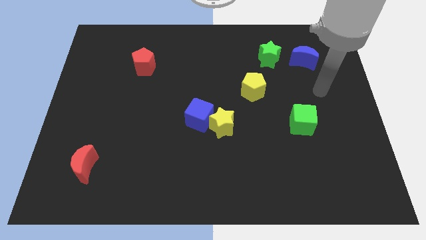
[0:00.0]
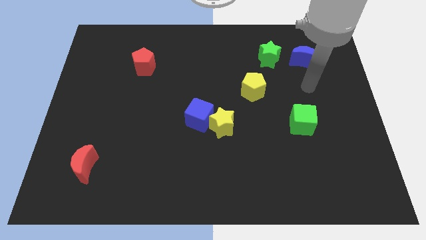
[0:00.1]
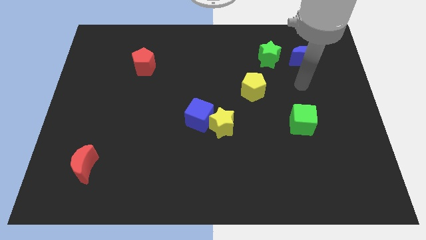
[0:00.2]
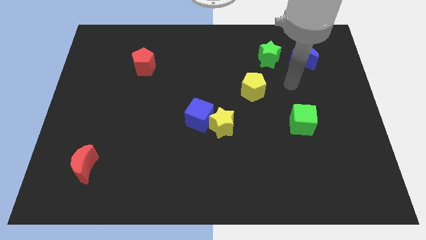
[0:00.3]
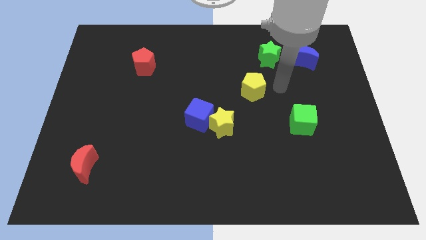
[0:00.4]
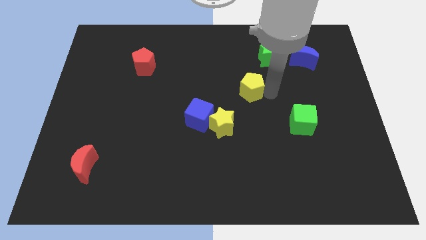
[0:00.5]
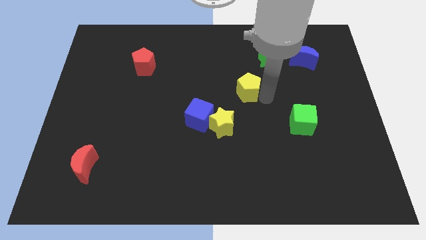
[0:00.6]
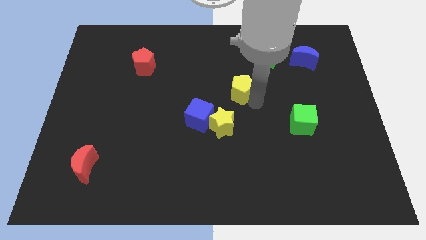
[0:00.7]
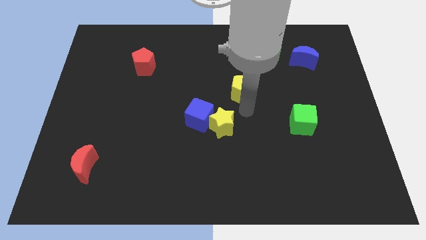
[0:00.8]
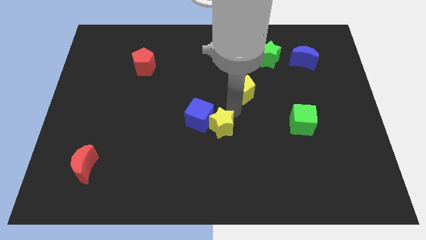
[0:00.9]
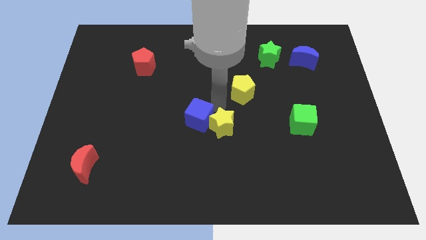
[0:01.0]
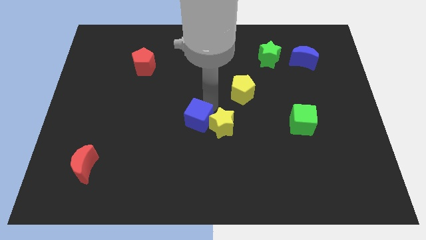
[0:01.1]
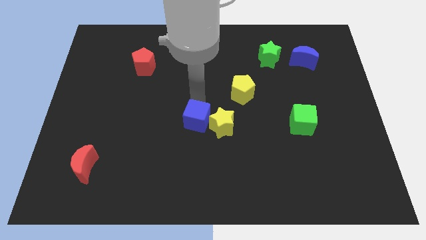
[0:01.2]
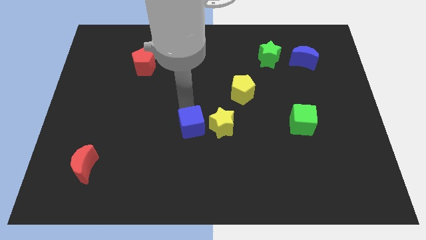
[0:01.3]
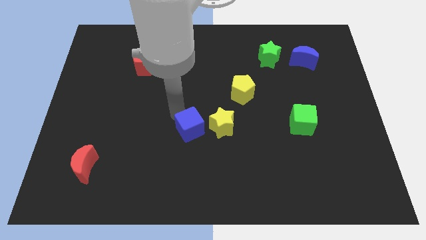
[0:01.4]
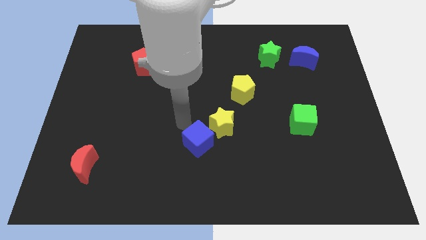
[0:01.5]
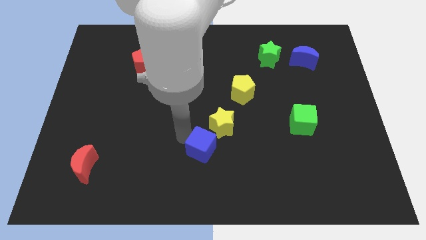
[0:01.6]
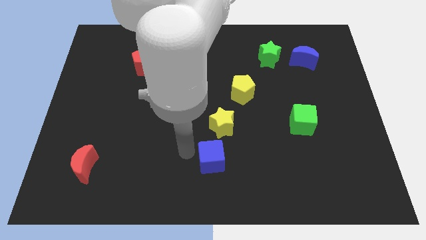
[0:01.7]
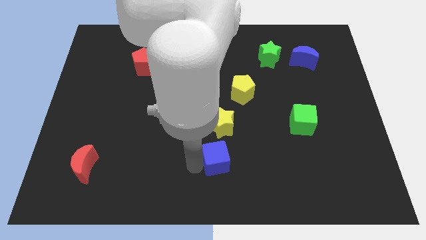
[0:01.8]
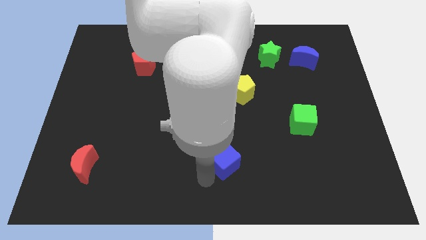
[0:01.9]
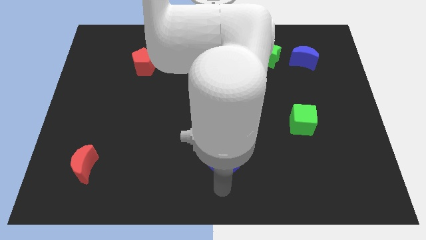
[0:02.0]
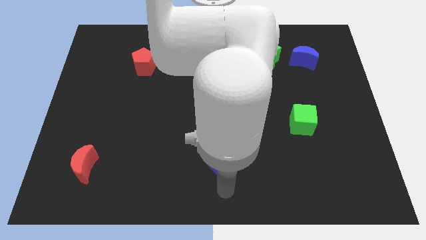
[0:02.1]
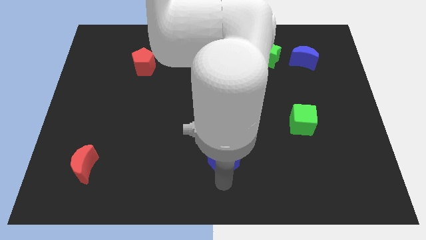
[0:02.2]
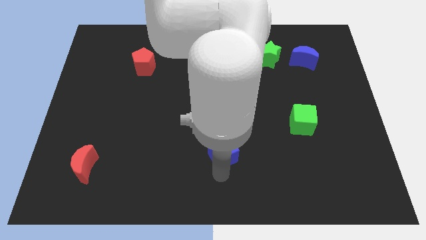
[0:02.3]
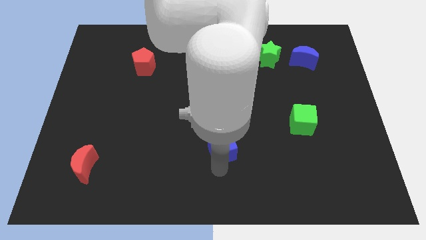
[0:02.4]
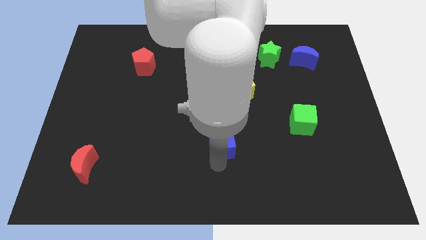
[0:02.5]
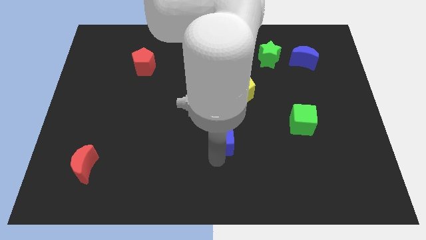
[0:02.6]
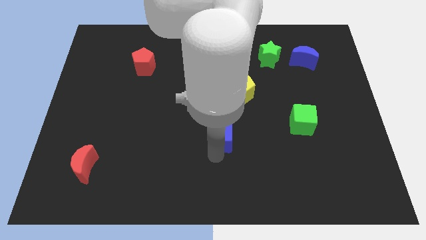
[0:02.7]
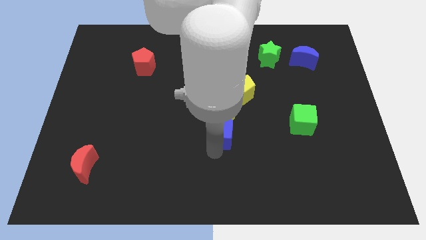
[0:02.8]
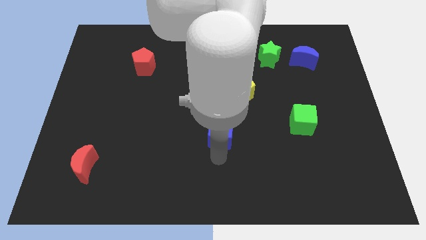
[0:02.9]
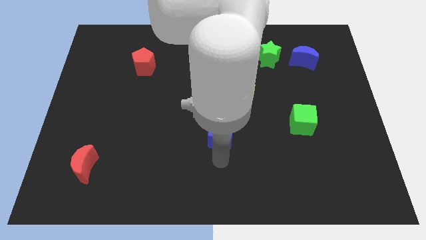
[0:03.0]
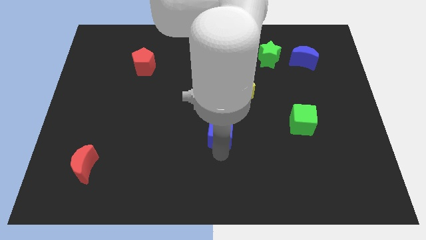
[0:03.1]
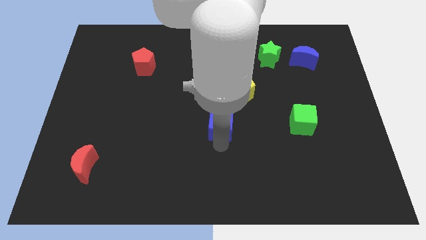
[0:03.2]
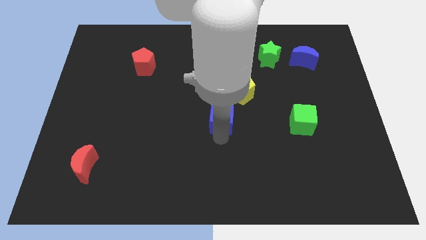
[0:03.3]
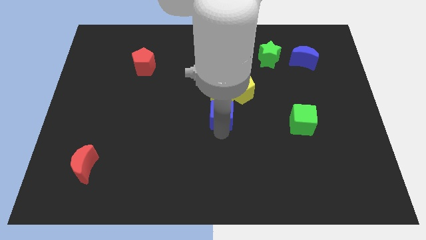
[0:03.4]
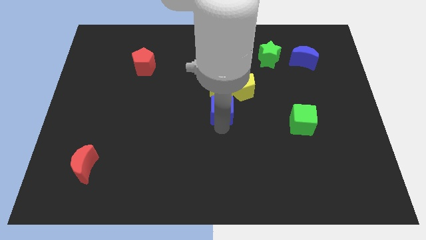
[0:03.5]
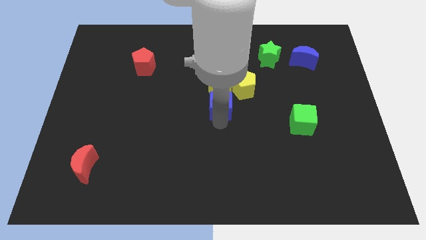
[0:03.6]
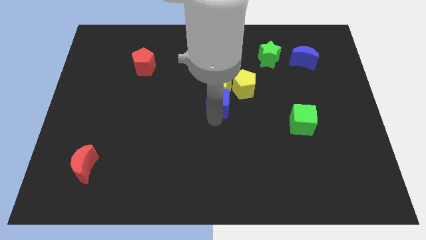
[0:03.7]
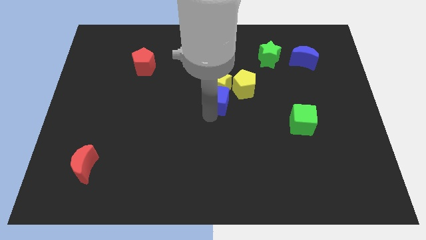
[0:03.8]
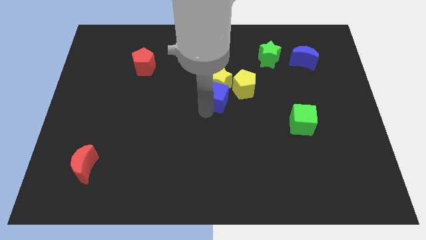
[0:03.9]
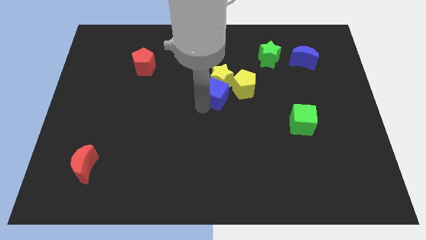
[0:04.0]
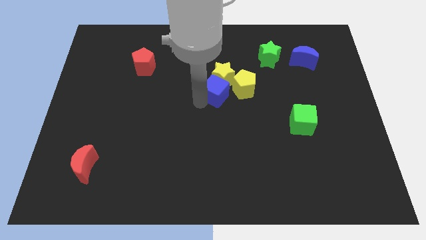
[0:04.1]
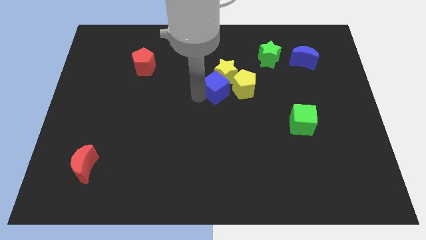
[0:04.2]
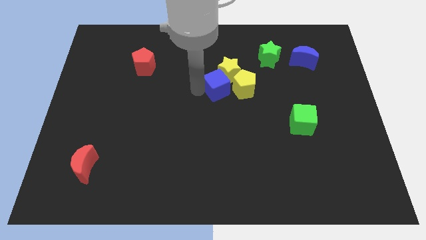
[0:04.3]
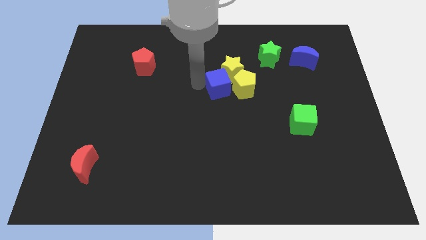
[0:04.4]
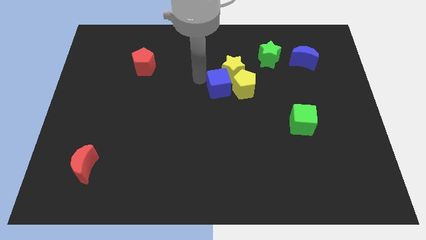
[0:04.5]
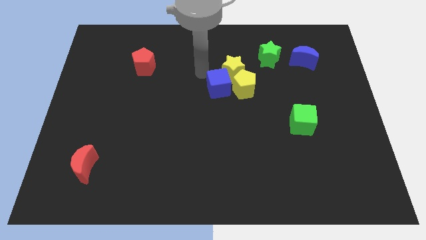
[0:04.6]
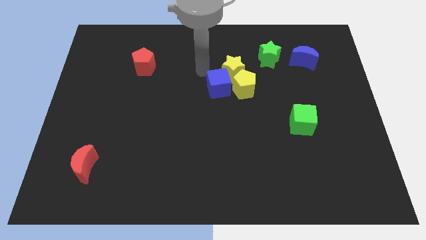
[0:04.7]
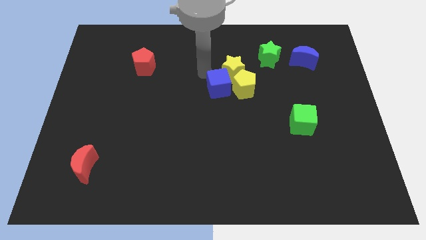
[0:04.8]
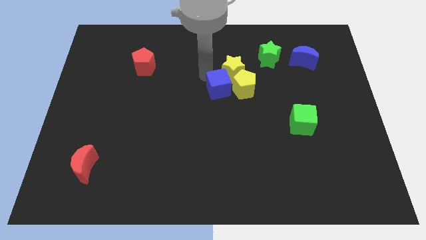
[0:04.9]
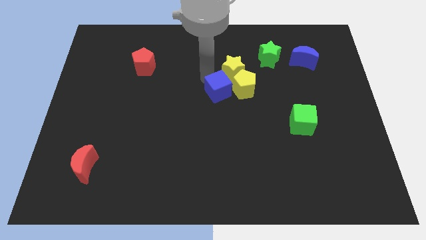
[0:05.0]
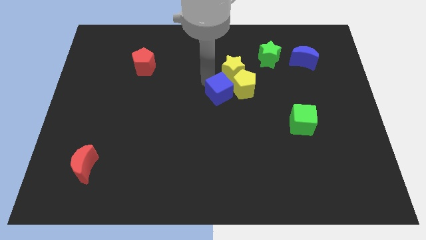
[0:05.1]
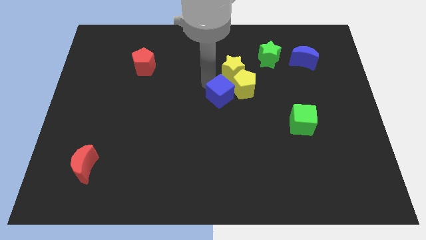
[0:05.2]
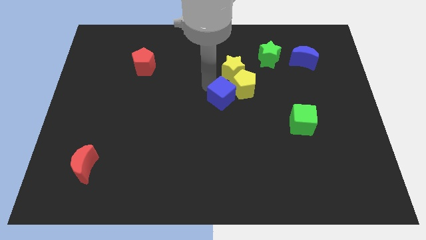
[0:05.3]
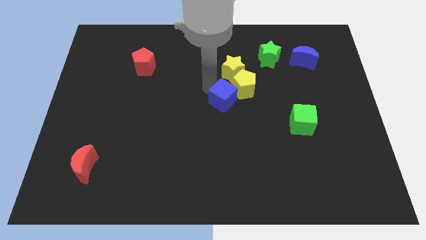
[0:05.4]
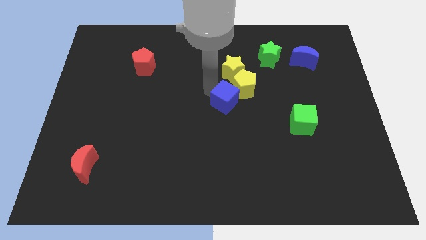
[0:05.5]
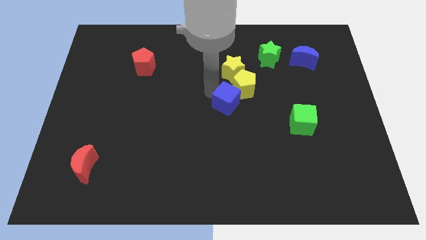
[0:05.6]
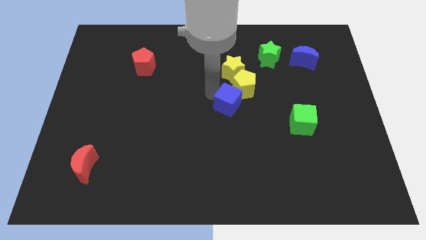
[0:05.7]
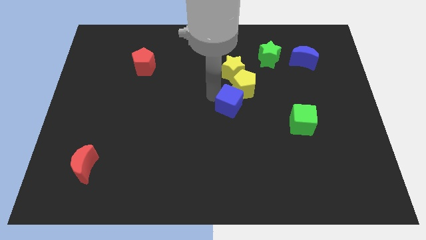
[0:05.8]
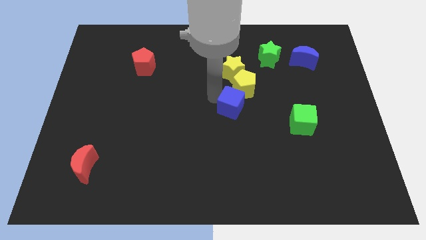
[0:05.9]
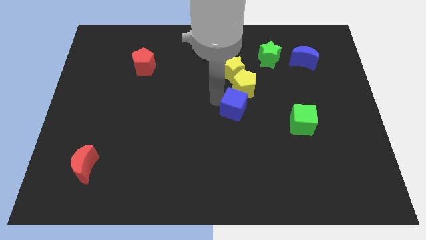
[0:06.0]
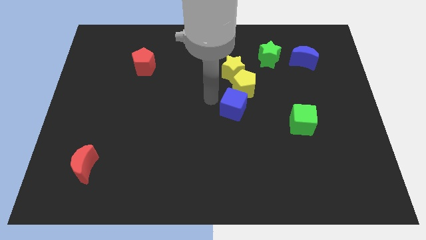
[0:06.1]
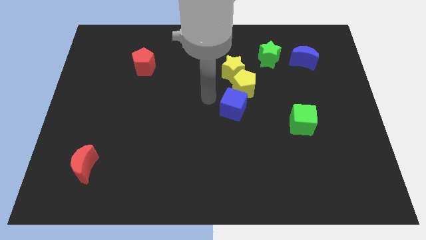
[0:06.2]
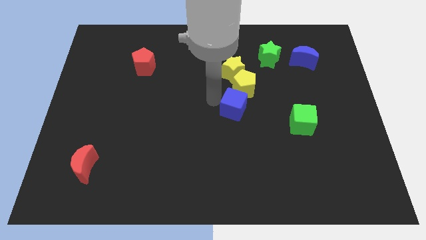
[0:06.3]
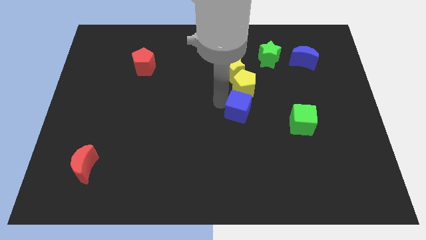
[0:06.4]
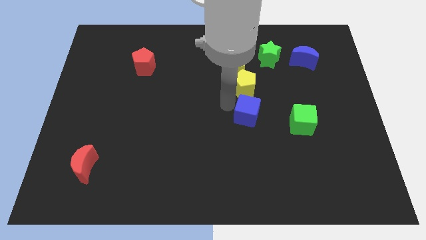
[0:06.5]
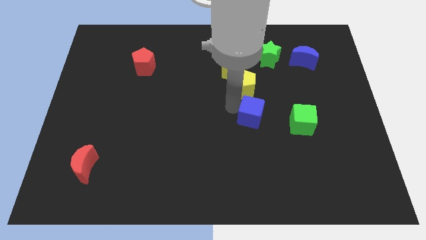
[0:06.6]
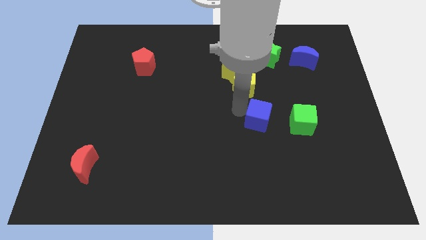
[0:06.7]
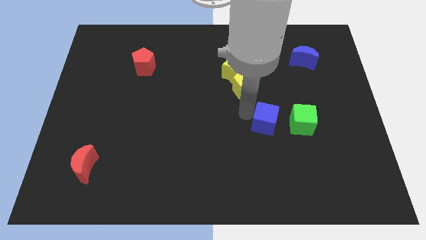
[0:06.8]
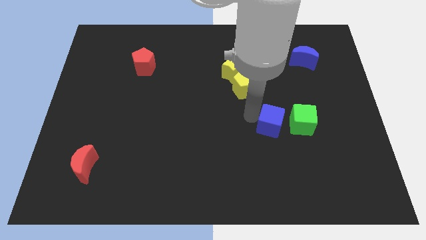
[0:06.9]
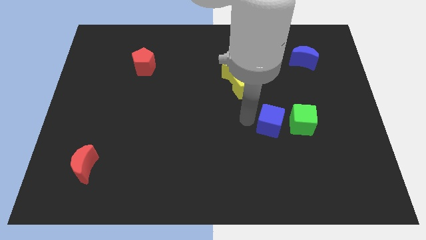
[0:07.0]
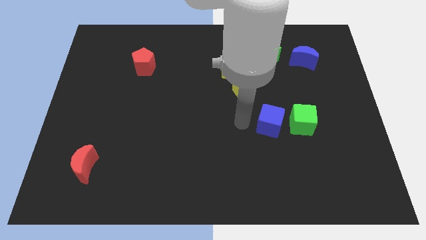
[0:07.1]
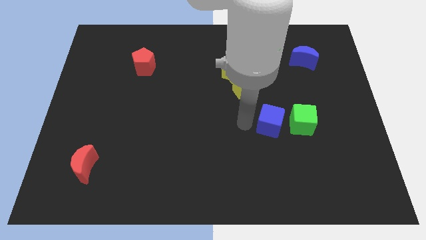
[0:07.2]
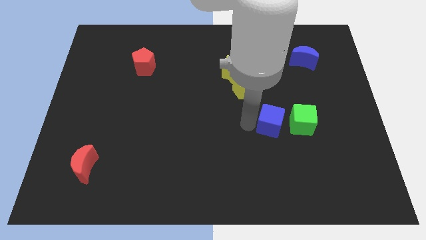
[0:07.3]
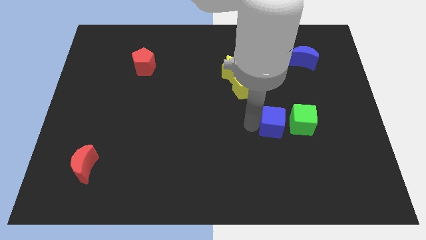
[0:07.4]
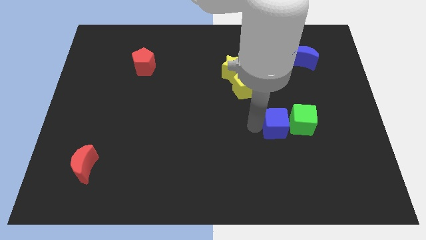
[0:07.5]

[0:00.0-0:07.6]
slide the blue cube to the green cube
